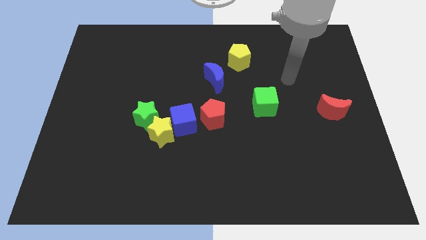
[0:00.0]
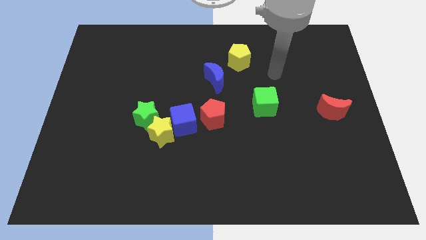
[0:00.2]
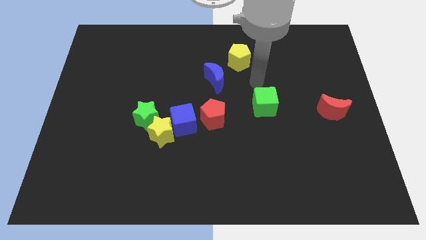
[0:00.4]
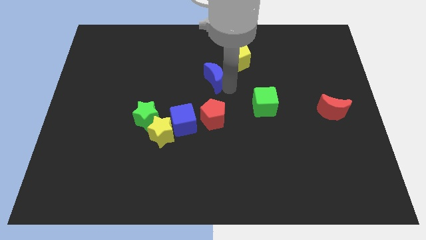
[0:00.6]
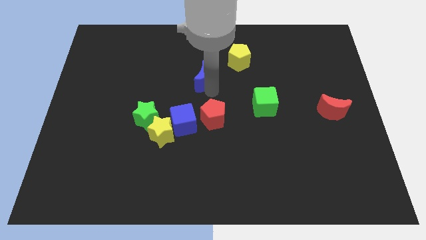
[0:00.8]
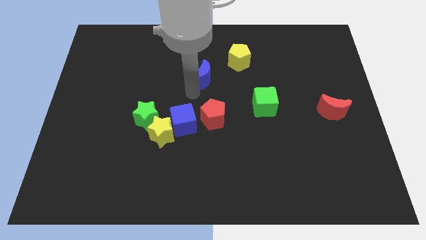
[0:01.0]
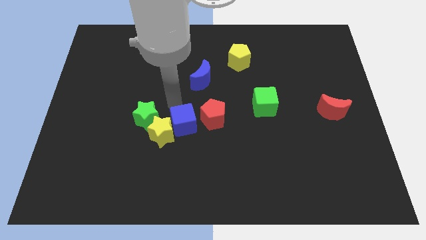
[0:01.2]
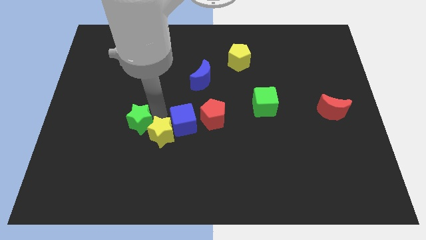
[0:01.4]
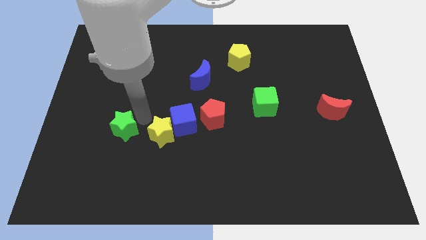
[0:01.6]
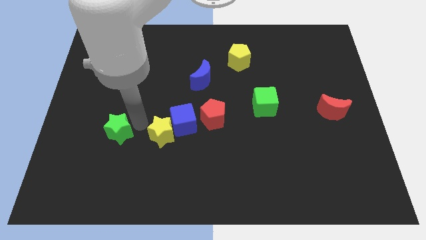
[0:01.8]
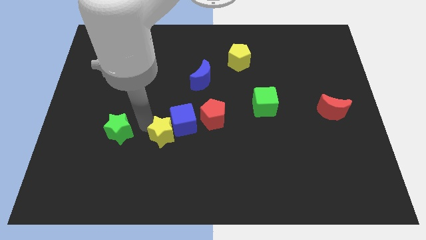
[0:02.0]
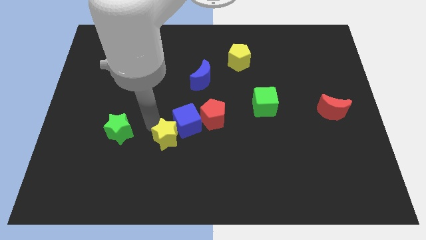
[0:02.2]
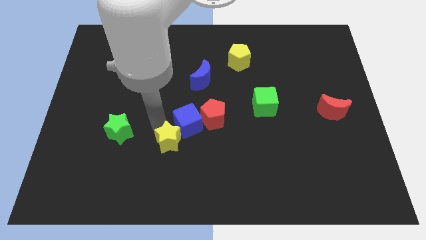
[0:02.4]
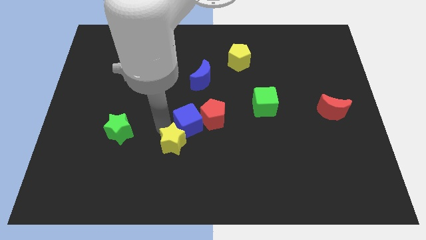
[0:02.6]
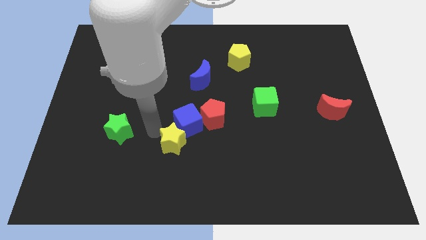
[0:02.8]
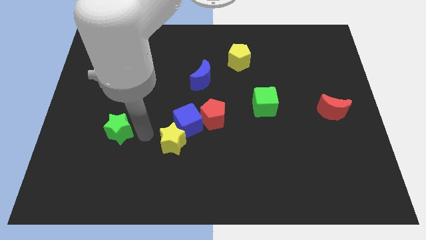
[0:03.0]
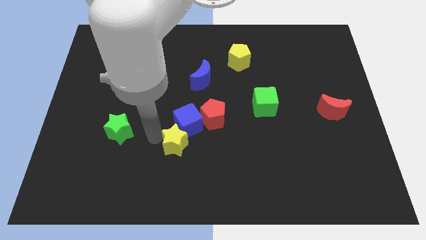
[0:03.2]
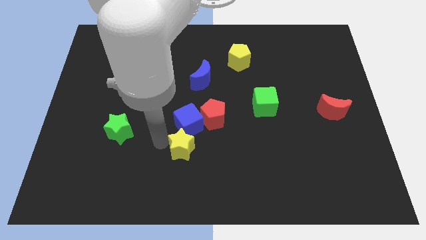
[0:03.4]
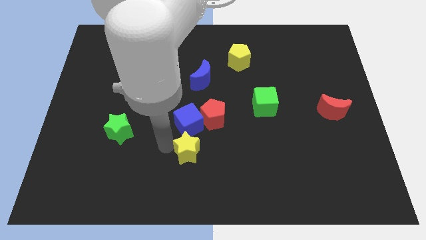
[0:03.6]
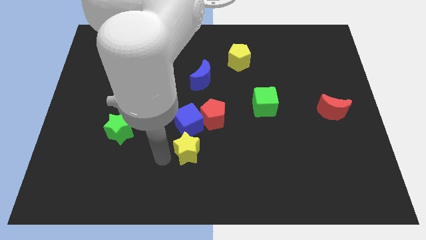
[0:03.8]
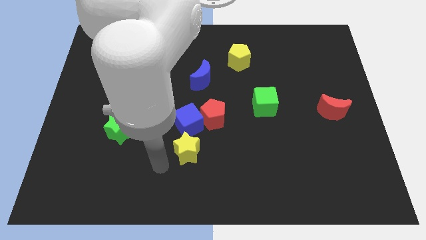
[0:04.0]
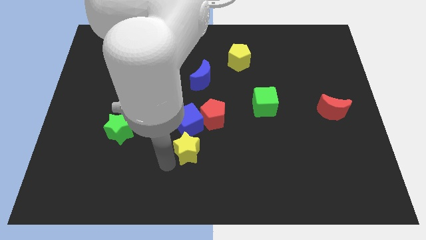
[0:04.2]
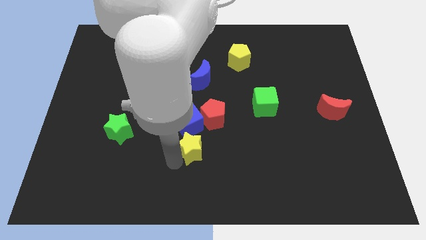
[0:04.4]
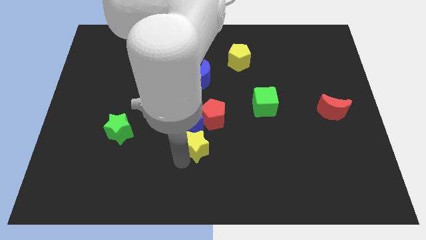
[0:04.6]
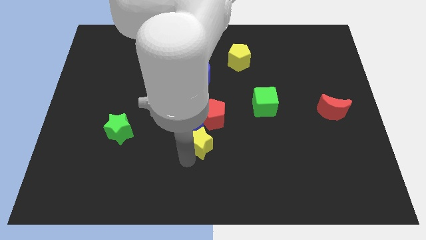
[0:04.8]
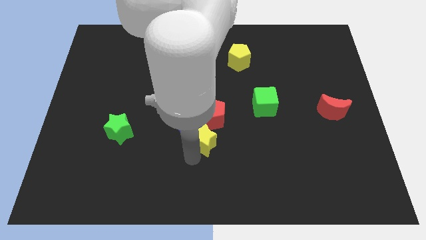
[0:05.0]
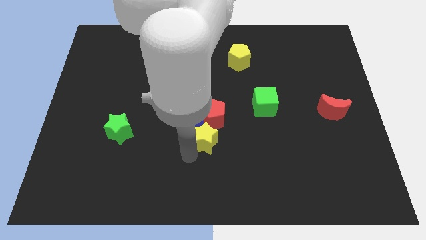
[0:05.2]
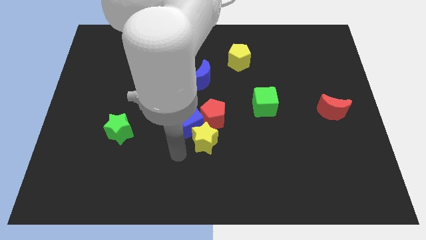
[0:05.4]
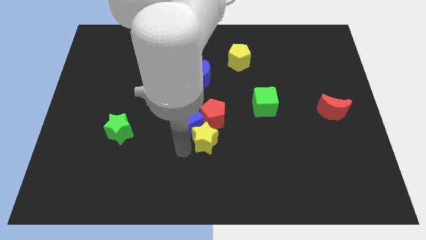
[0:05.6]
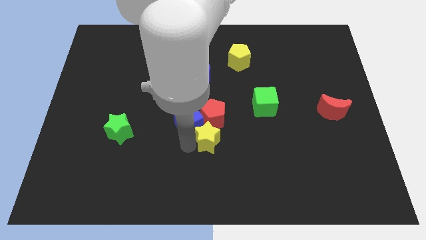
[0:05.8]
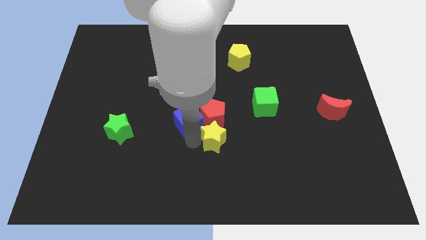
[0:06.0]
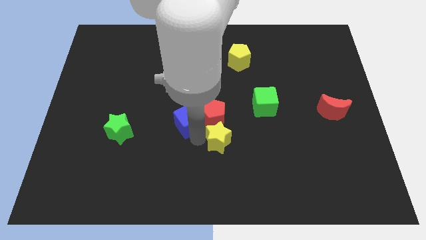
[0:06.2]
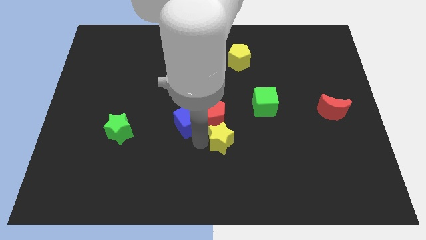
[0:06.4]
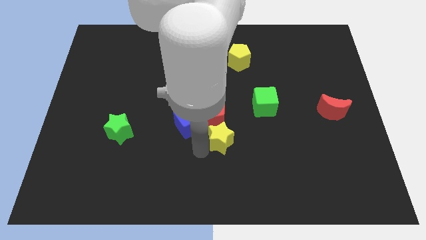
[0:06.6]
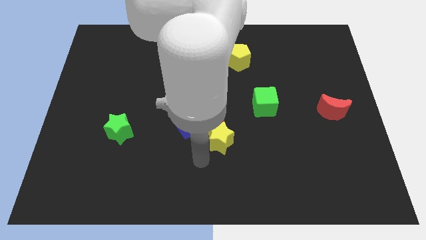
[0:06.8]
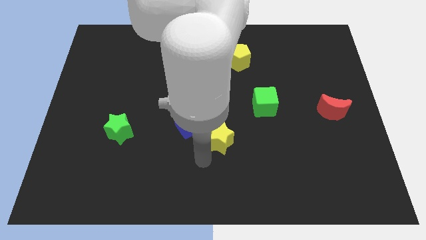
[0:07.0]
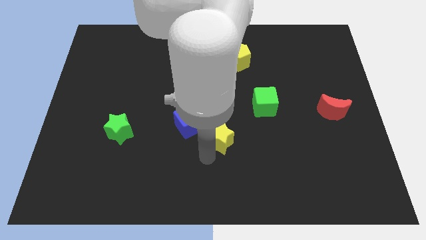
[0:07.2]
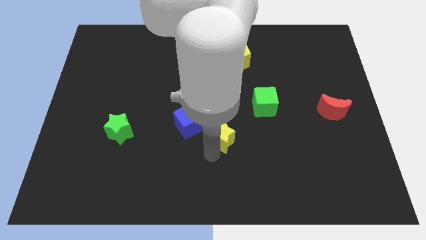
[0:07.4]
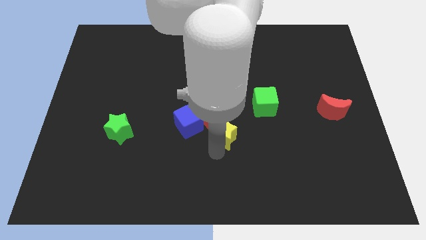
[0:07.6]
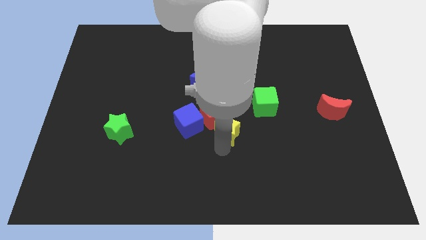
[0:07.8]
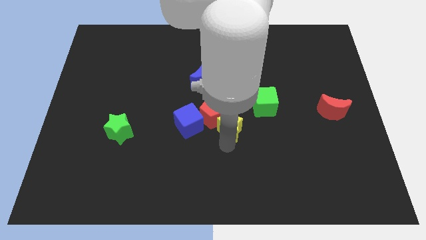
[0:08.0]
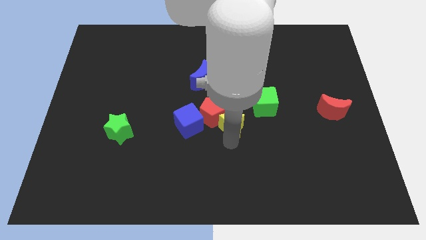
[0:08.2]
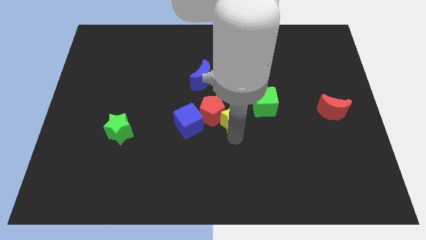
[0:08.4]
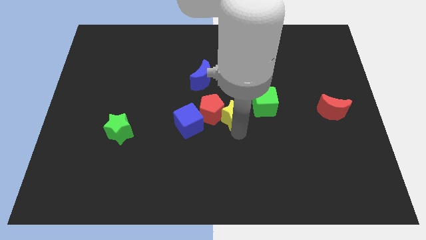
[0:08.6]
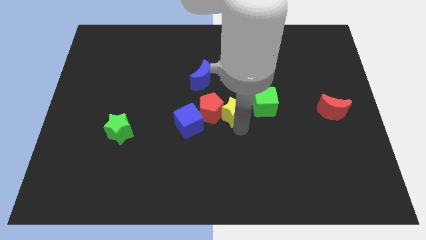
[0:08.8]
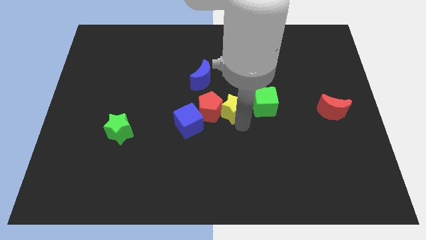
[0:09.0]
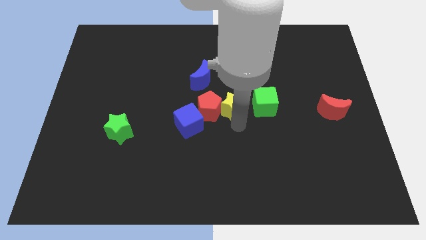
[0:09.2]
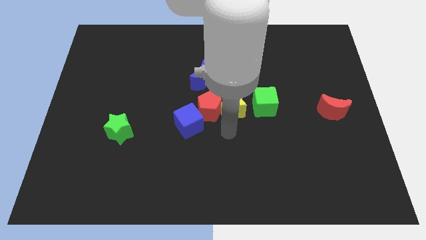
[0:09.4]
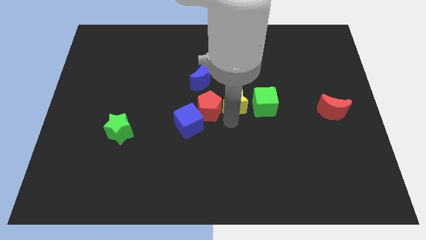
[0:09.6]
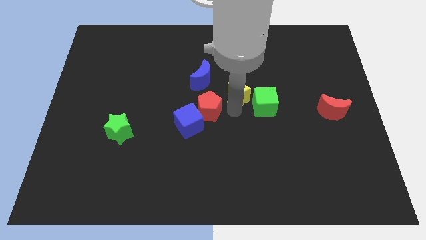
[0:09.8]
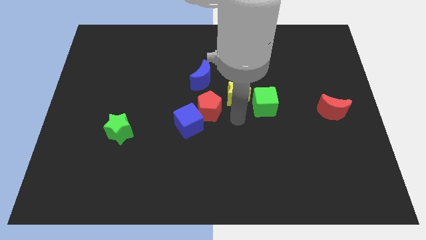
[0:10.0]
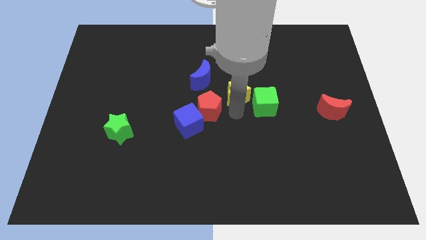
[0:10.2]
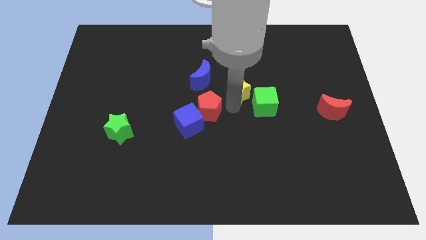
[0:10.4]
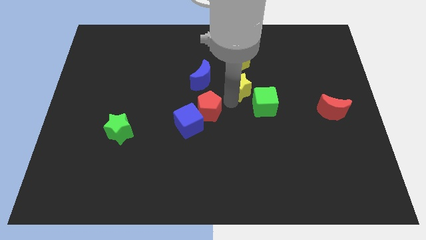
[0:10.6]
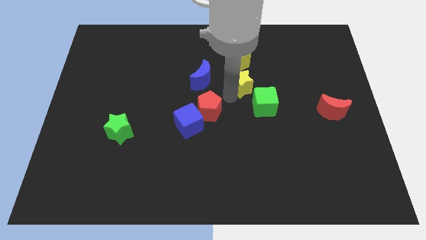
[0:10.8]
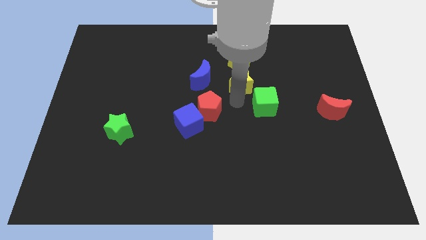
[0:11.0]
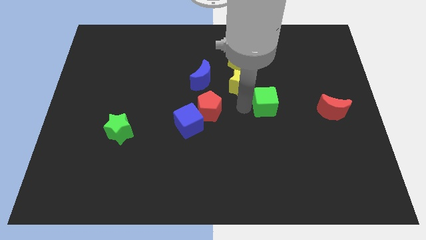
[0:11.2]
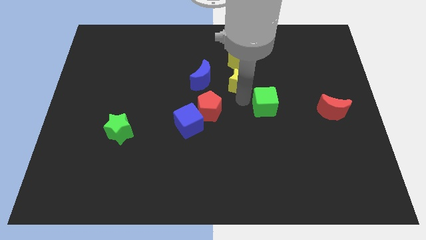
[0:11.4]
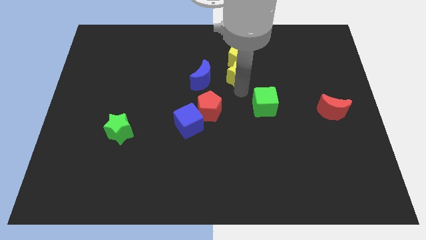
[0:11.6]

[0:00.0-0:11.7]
put the yellow star towards the yellow pentagon
